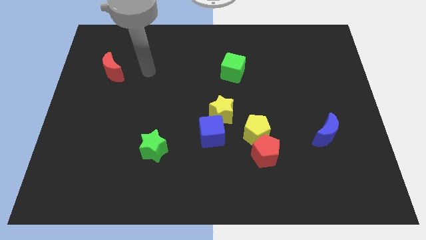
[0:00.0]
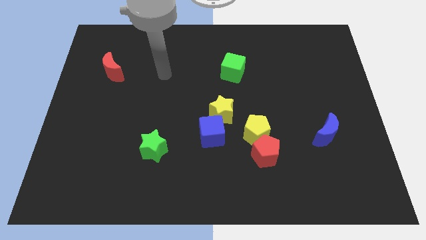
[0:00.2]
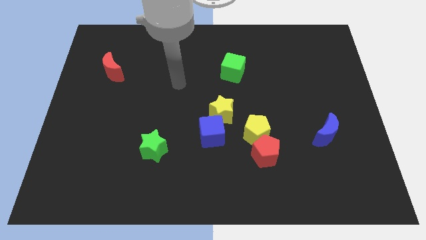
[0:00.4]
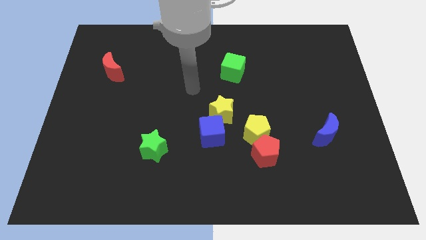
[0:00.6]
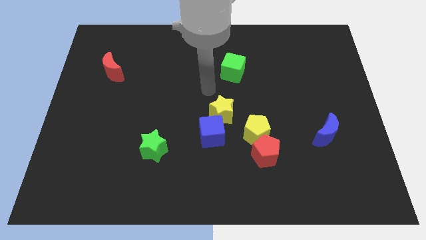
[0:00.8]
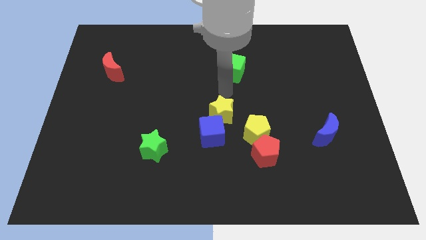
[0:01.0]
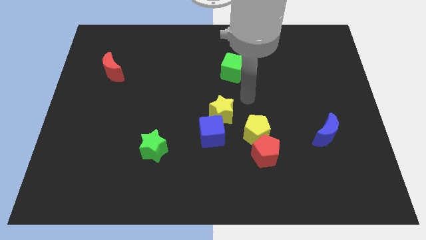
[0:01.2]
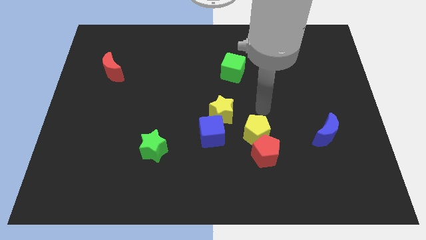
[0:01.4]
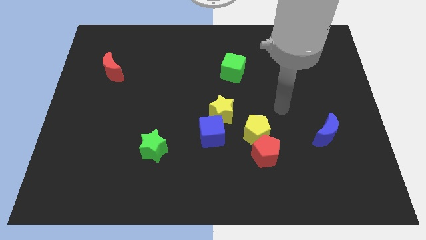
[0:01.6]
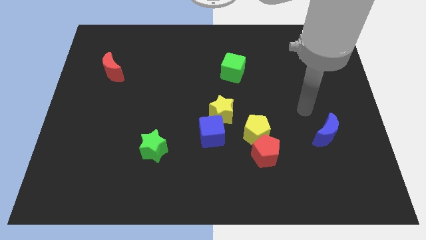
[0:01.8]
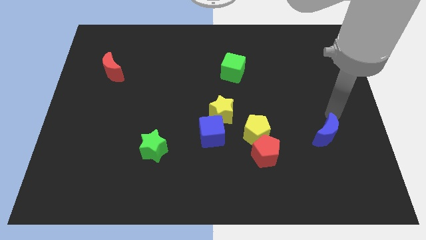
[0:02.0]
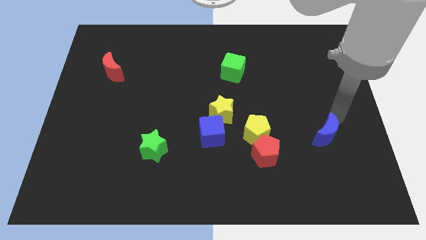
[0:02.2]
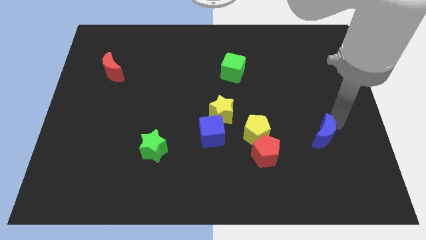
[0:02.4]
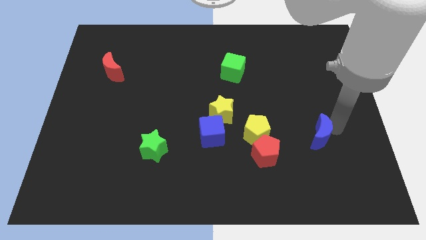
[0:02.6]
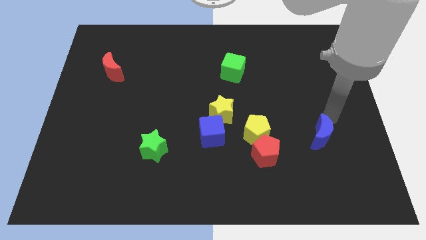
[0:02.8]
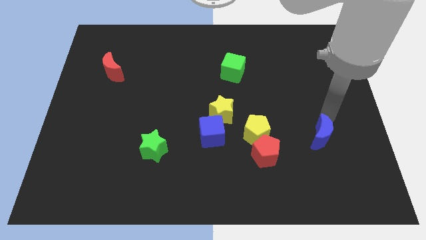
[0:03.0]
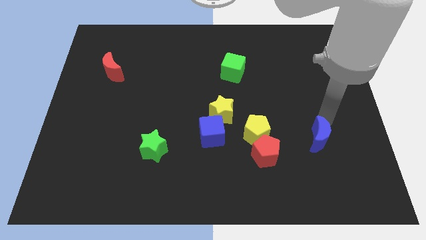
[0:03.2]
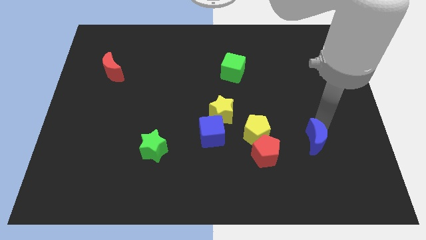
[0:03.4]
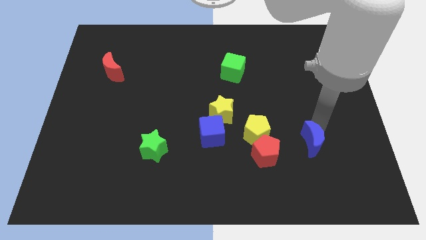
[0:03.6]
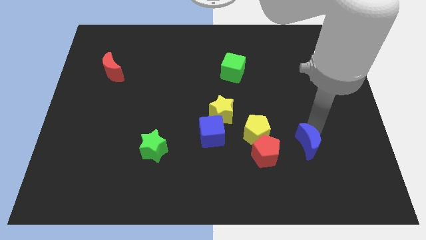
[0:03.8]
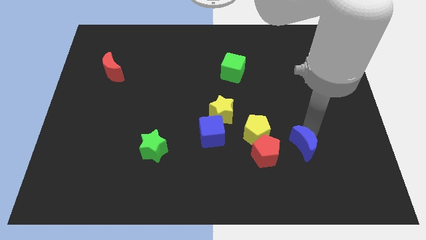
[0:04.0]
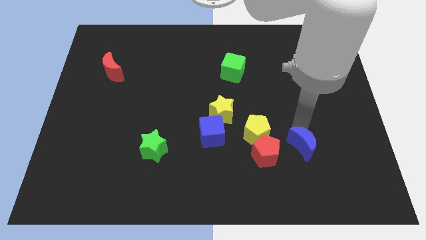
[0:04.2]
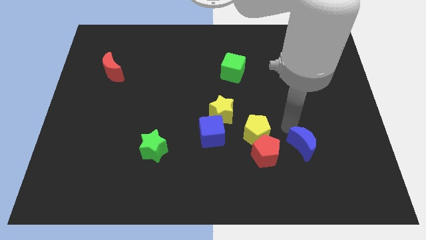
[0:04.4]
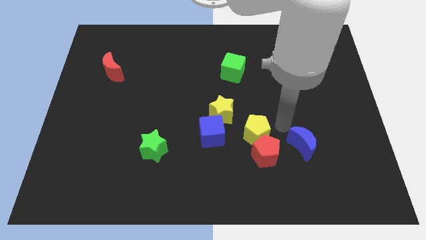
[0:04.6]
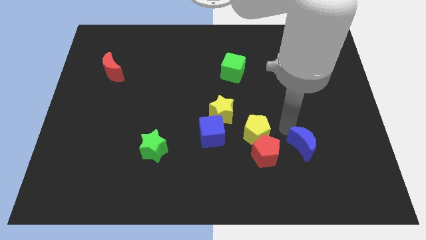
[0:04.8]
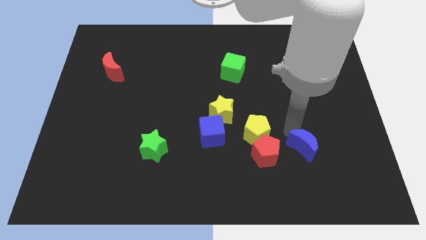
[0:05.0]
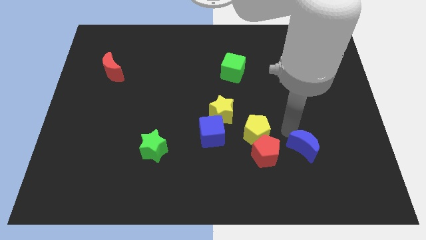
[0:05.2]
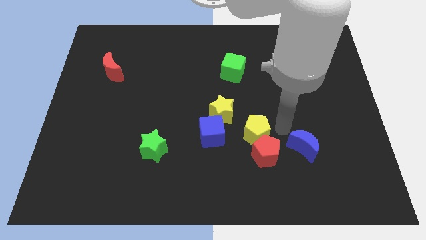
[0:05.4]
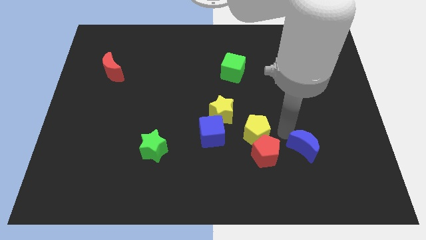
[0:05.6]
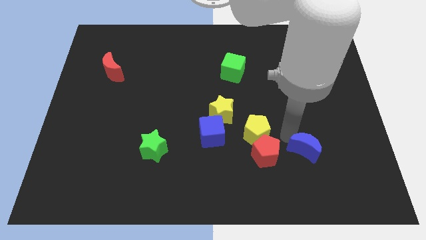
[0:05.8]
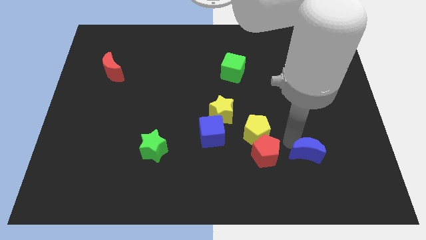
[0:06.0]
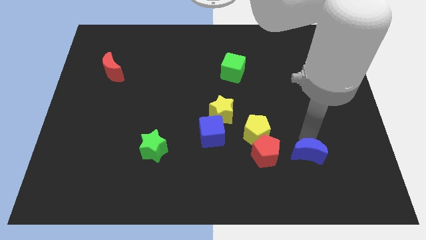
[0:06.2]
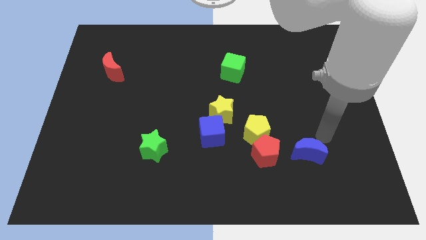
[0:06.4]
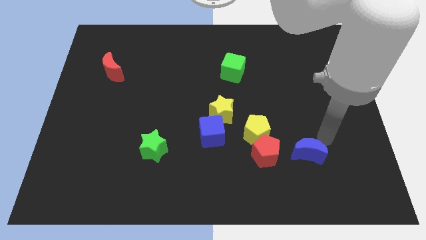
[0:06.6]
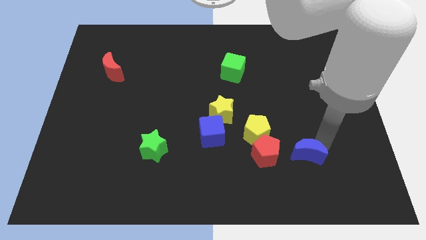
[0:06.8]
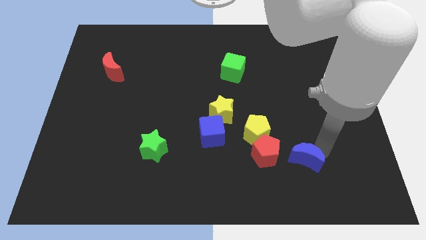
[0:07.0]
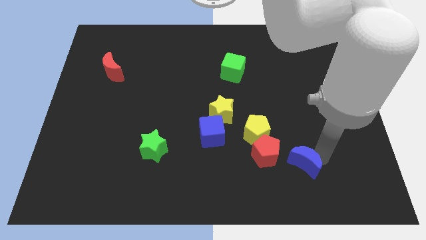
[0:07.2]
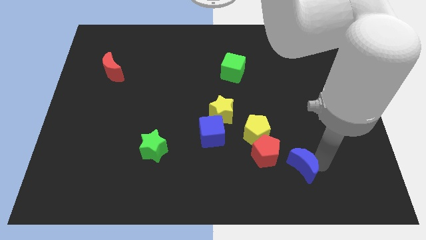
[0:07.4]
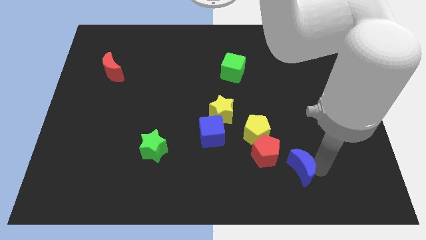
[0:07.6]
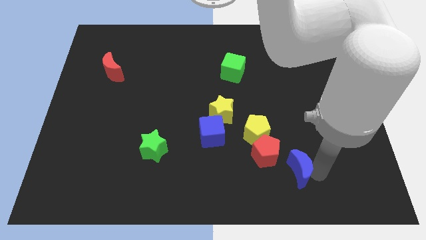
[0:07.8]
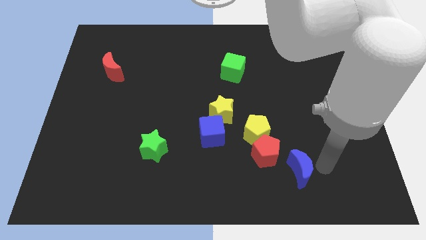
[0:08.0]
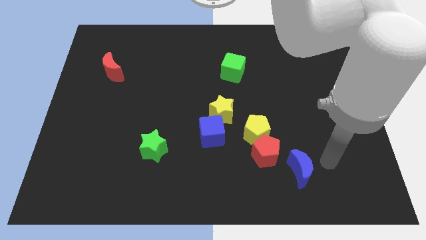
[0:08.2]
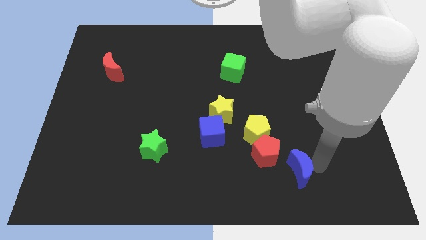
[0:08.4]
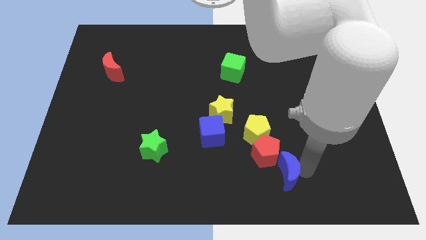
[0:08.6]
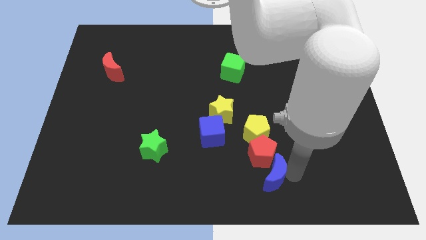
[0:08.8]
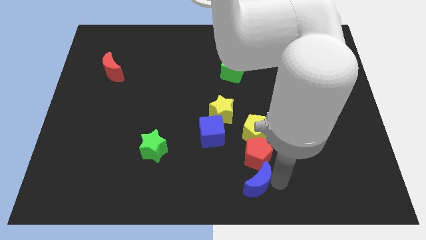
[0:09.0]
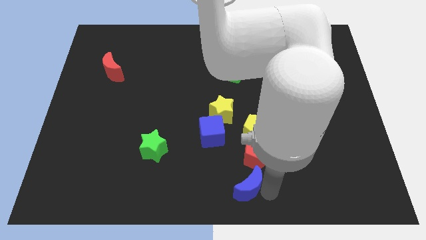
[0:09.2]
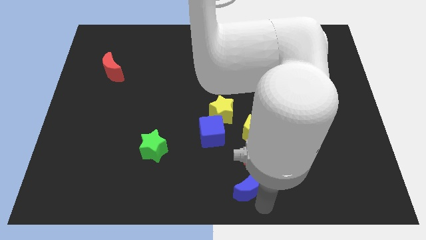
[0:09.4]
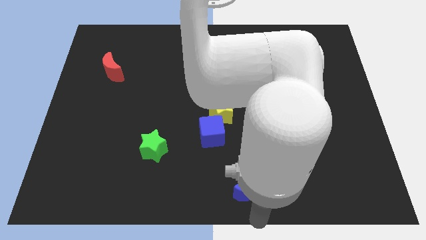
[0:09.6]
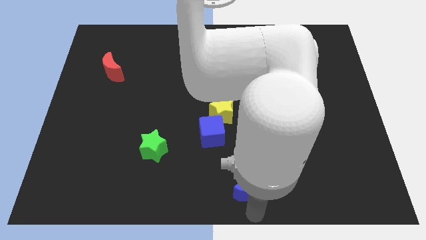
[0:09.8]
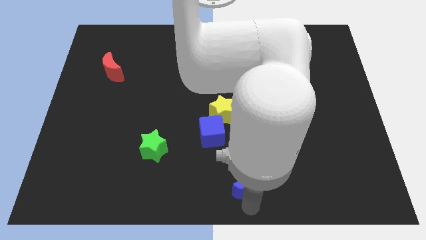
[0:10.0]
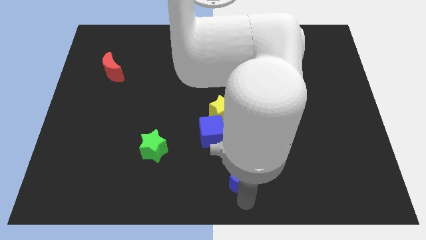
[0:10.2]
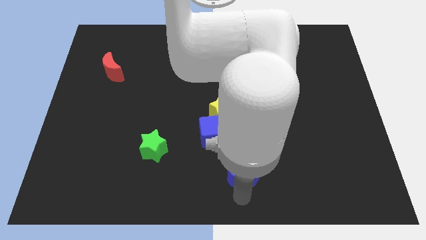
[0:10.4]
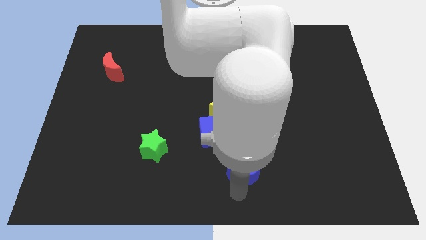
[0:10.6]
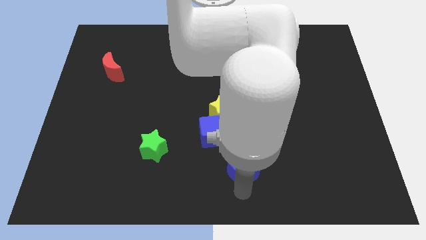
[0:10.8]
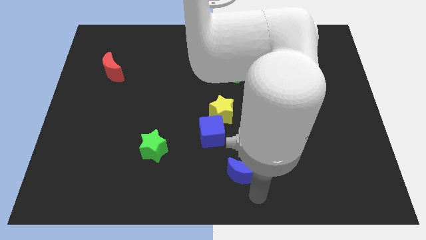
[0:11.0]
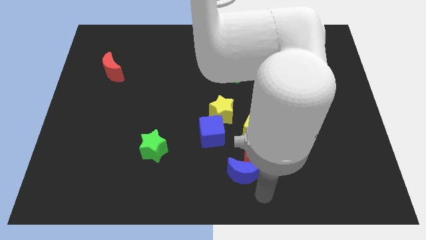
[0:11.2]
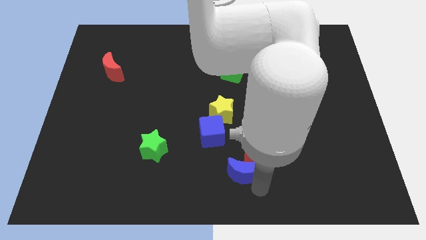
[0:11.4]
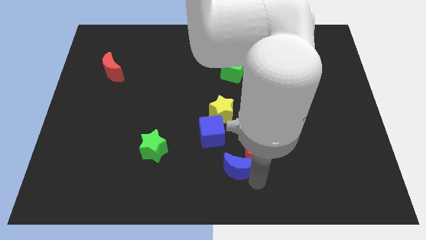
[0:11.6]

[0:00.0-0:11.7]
slide the blue moon to the bottom side of the yellow star

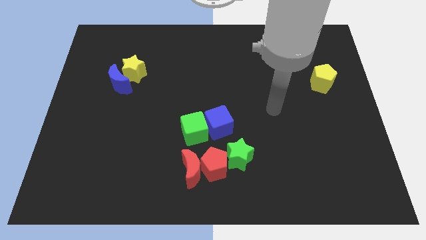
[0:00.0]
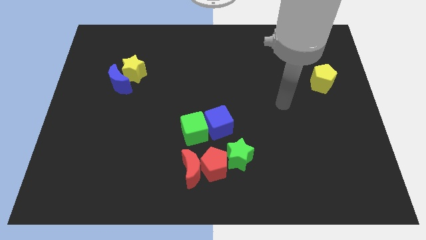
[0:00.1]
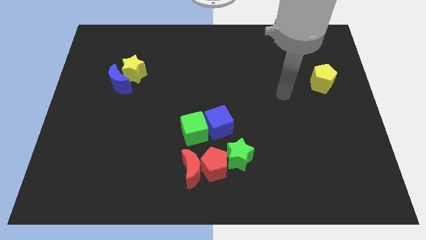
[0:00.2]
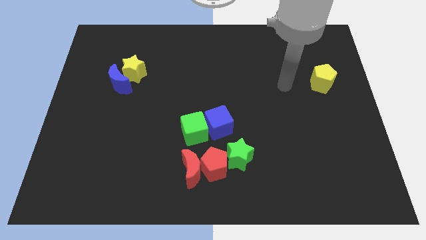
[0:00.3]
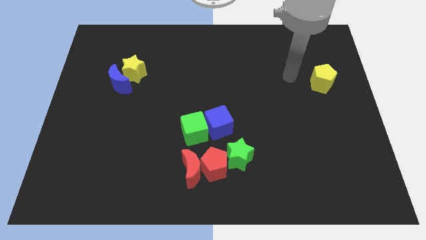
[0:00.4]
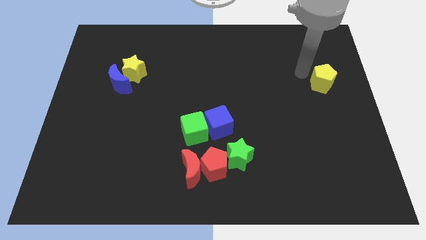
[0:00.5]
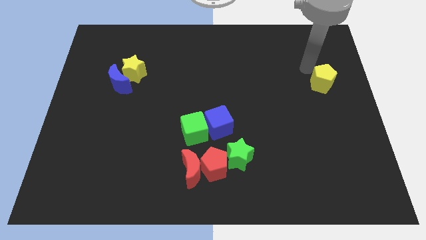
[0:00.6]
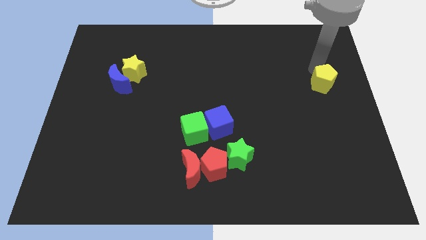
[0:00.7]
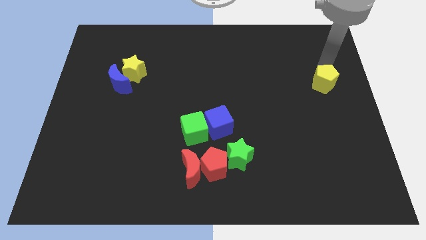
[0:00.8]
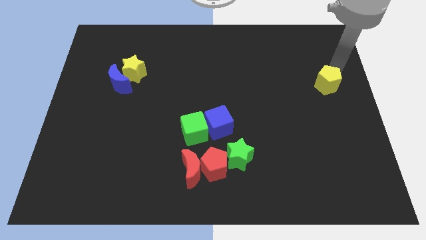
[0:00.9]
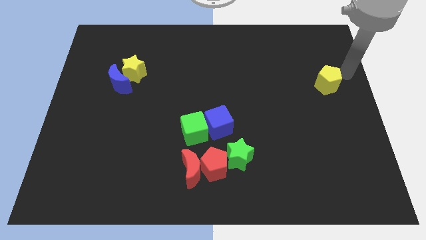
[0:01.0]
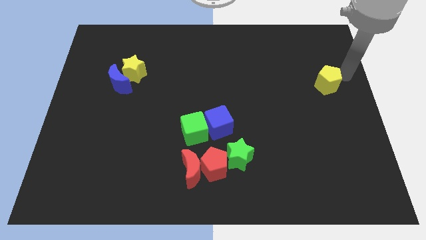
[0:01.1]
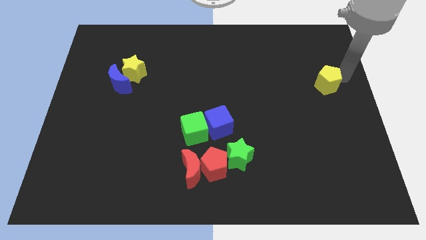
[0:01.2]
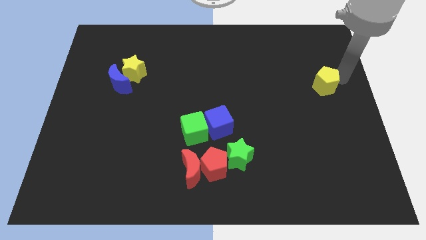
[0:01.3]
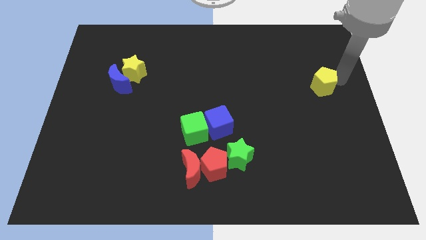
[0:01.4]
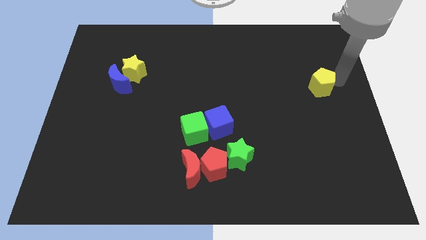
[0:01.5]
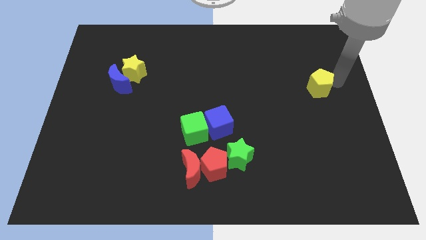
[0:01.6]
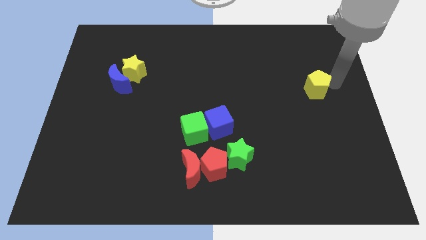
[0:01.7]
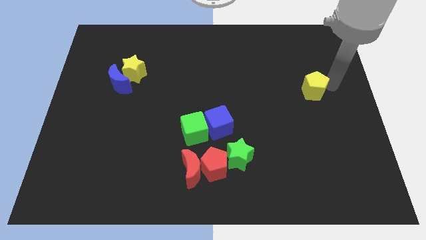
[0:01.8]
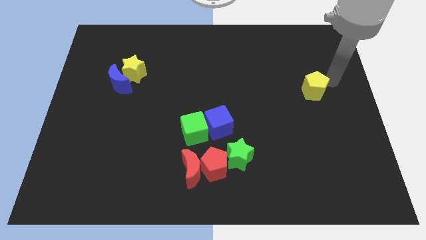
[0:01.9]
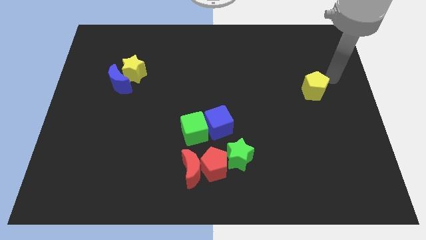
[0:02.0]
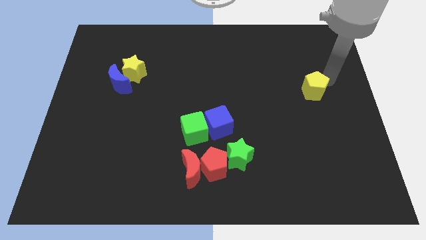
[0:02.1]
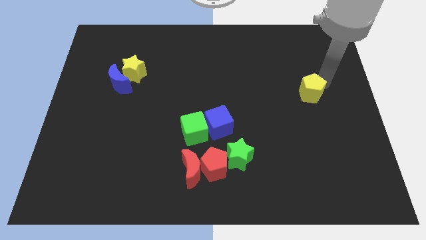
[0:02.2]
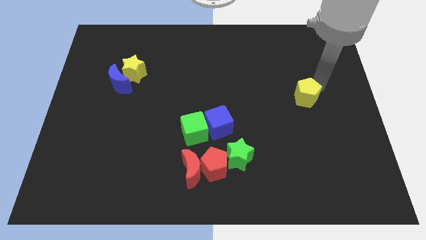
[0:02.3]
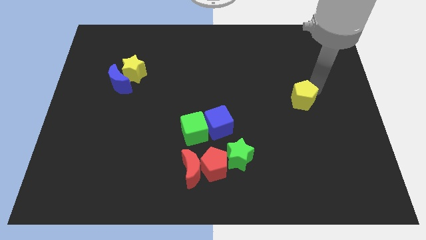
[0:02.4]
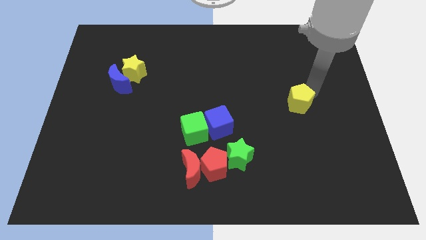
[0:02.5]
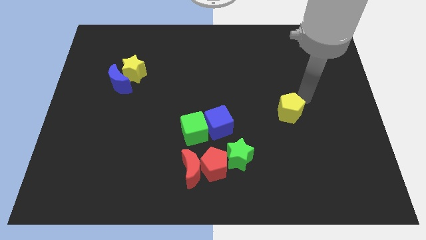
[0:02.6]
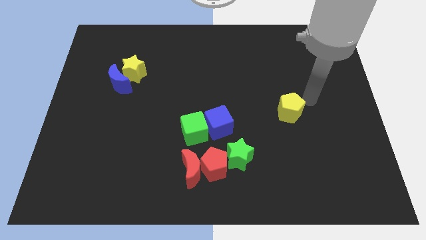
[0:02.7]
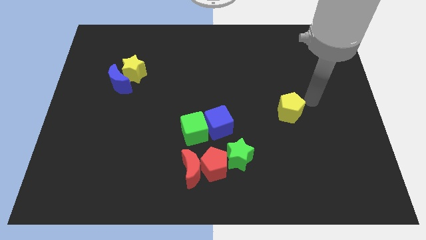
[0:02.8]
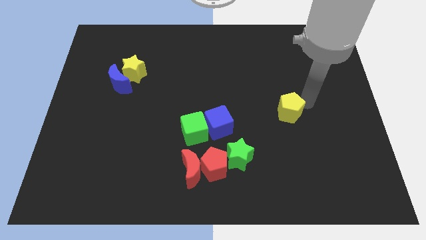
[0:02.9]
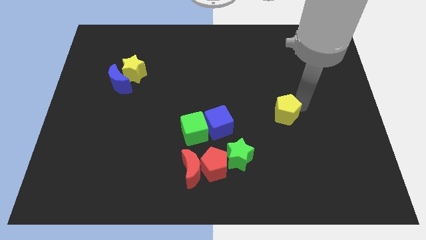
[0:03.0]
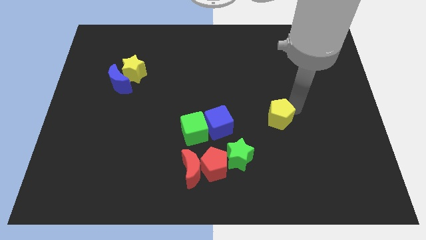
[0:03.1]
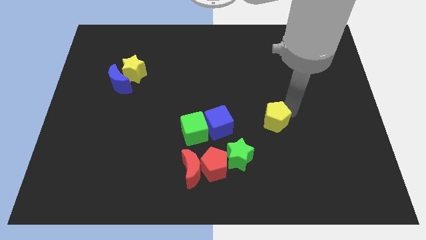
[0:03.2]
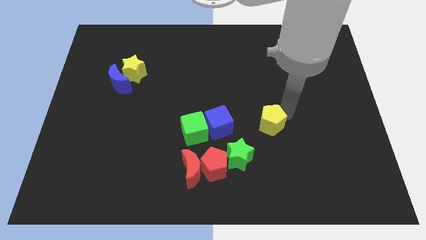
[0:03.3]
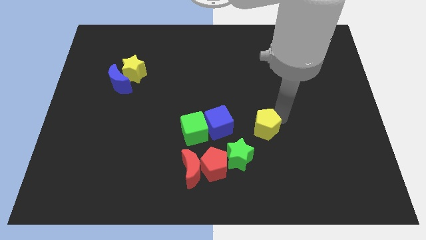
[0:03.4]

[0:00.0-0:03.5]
move the yellow pentagon to the right of the green cube
